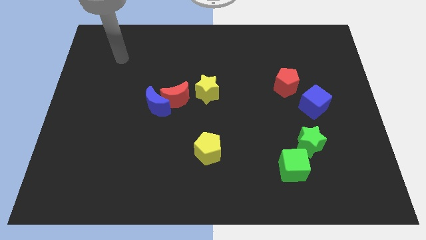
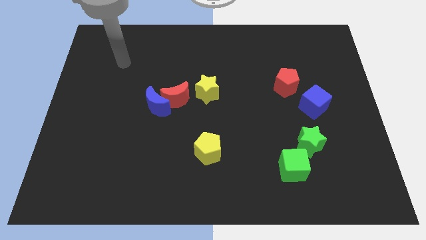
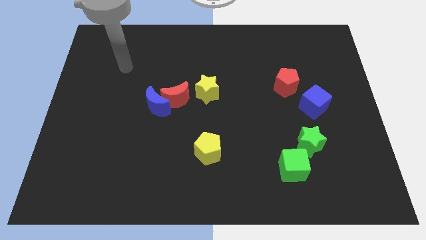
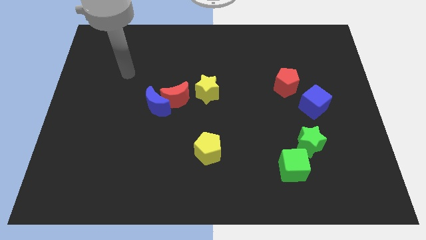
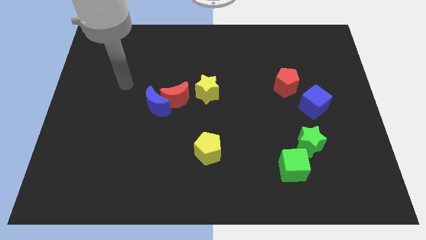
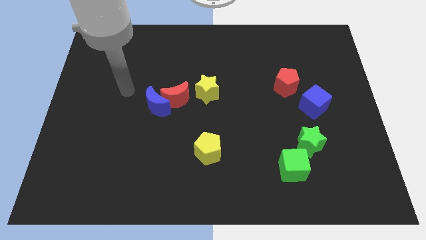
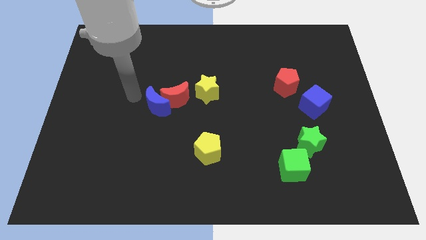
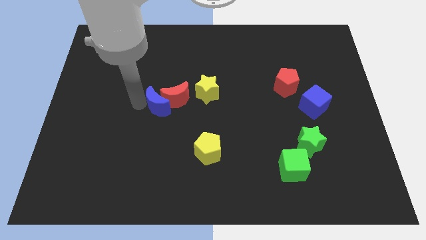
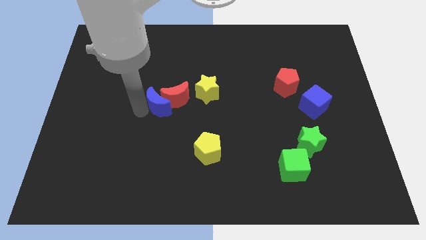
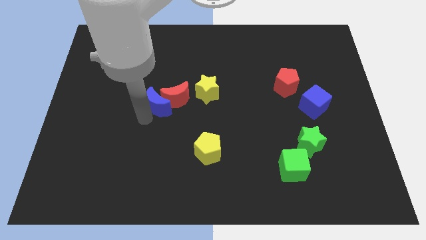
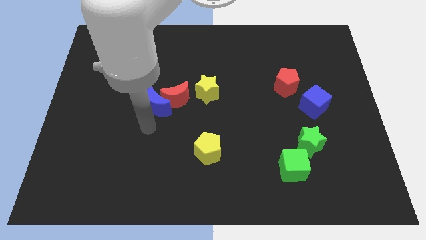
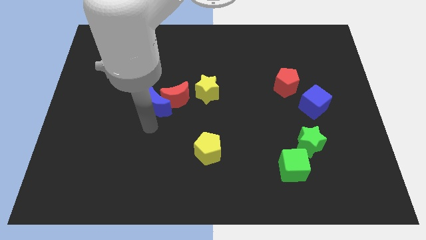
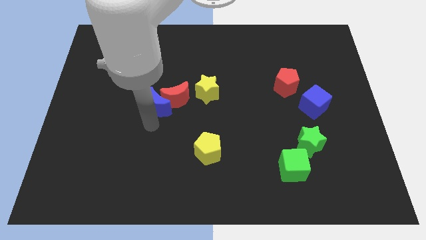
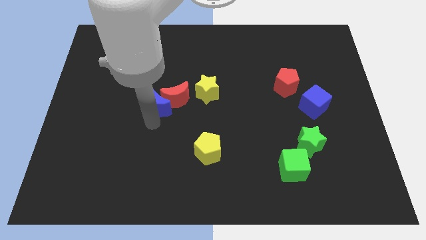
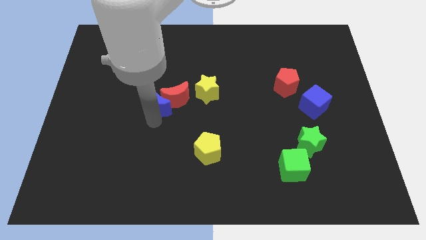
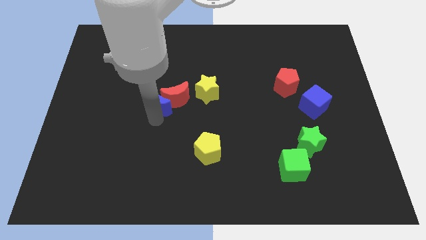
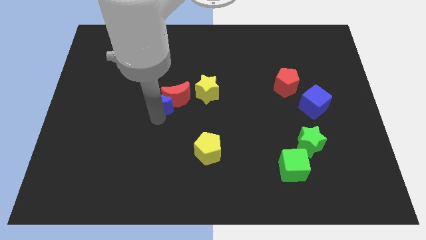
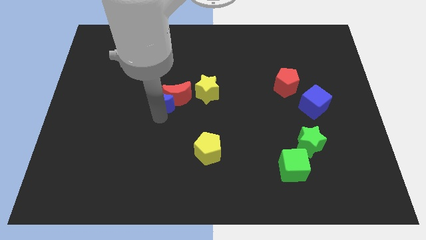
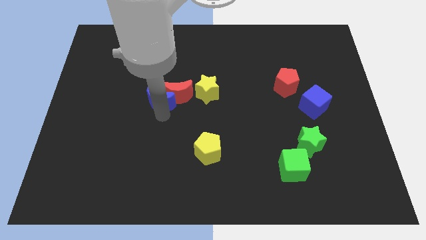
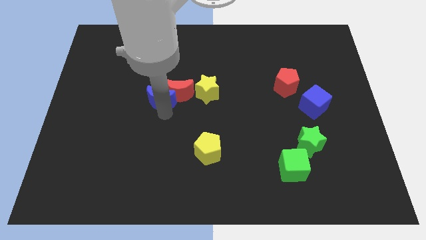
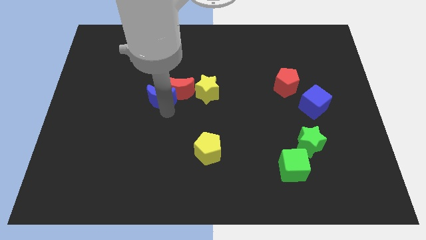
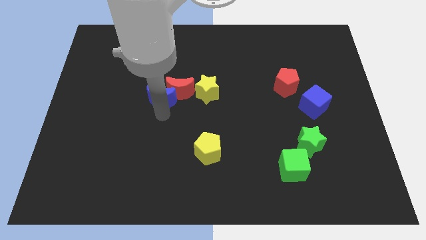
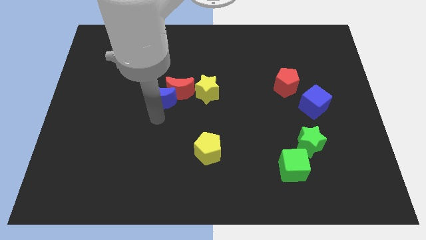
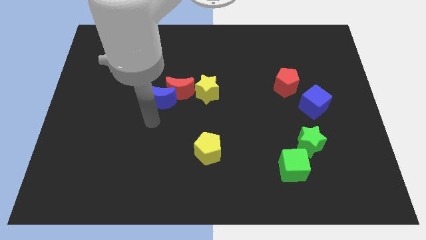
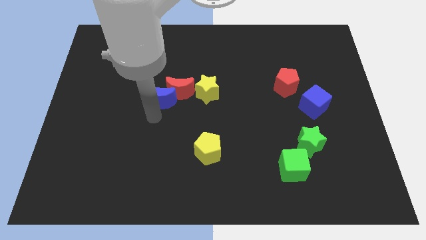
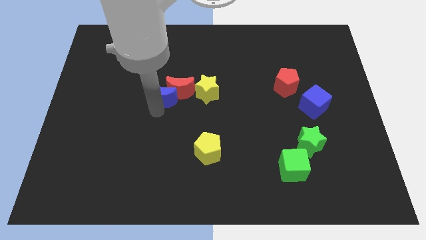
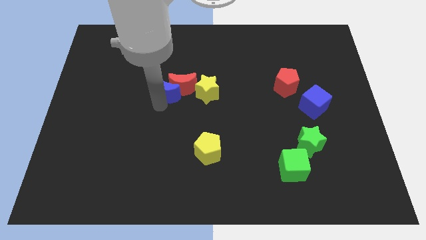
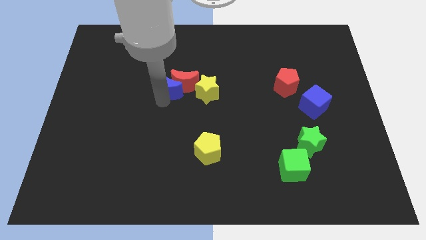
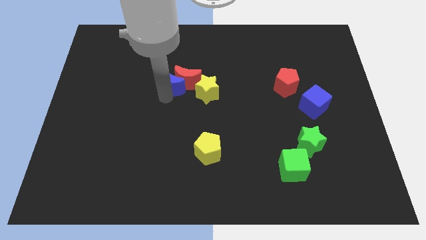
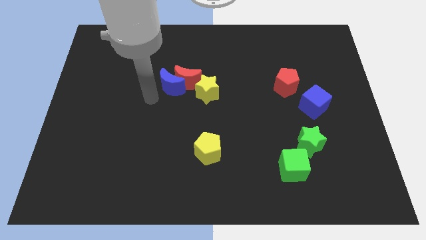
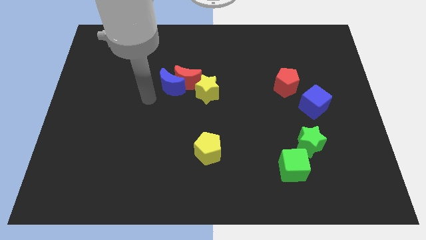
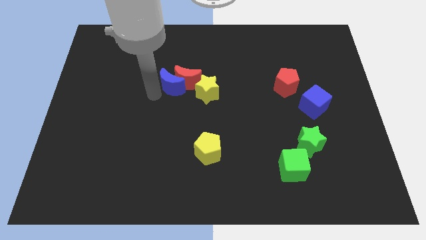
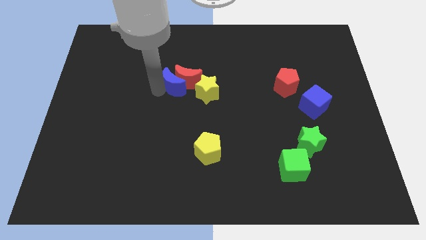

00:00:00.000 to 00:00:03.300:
push the blue moon a little up and right diagonally

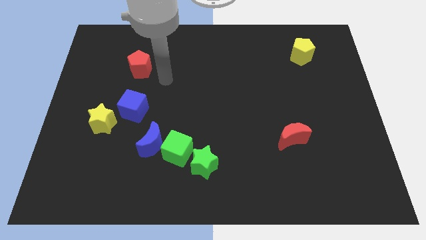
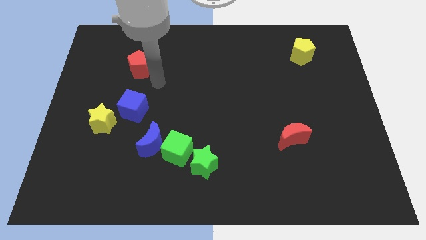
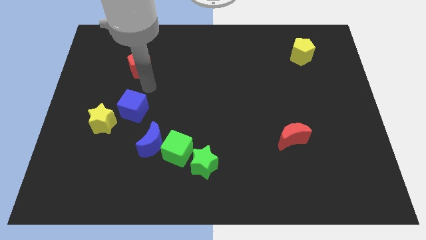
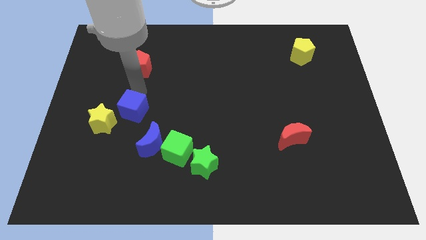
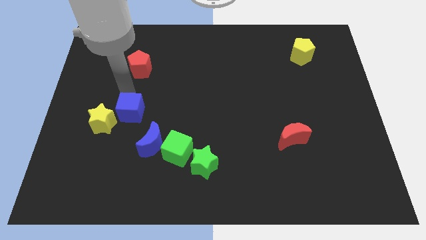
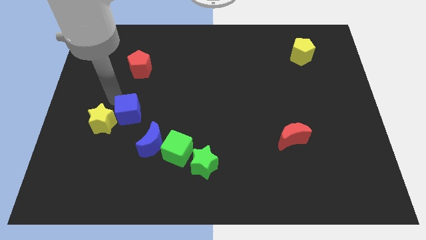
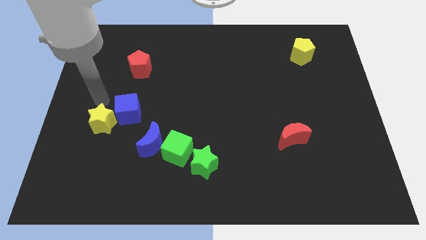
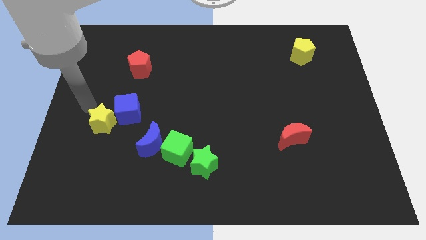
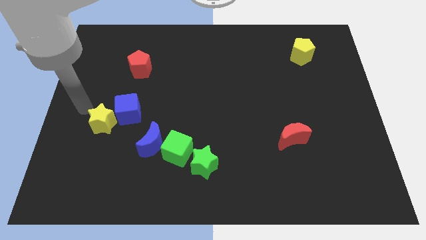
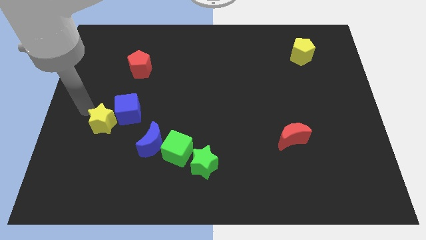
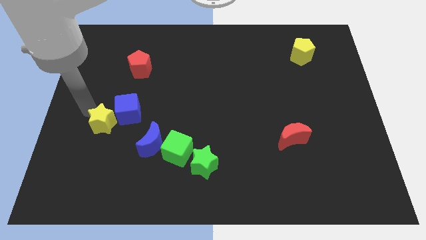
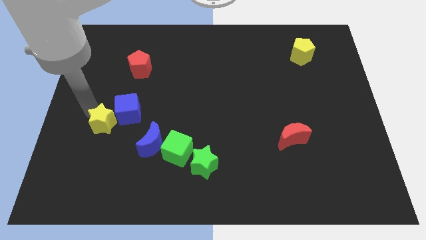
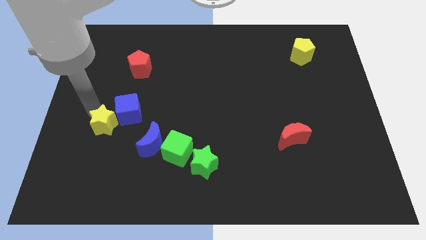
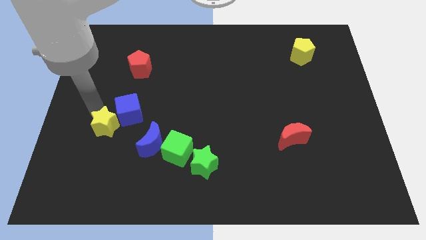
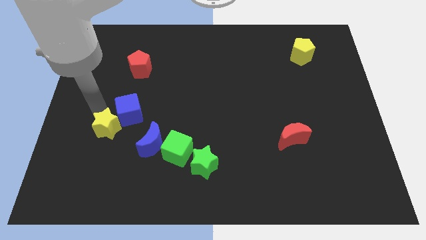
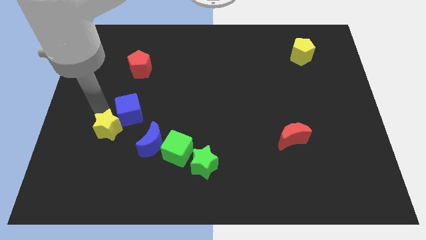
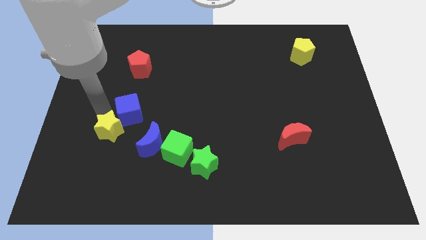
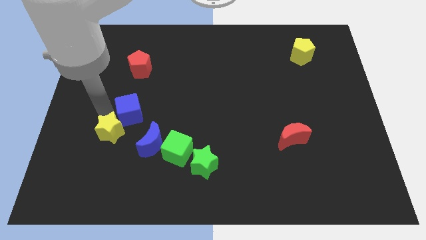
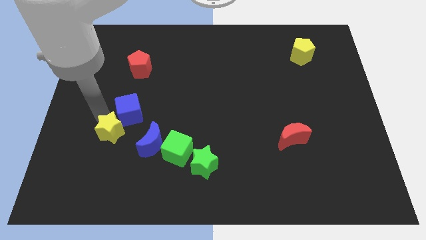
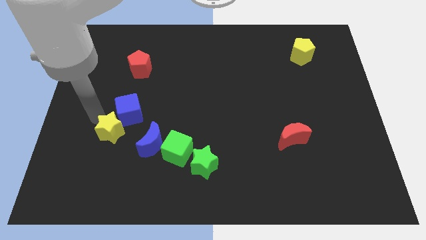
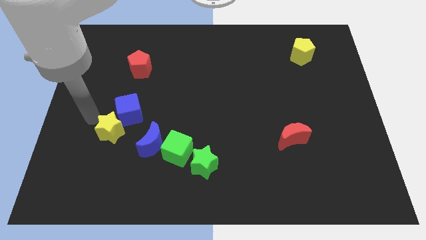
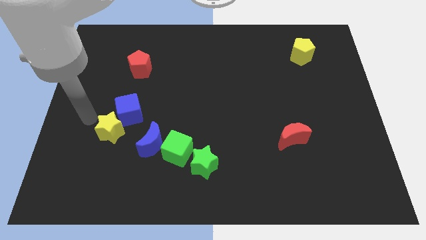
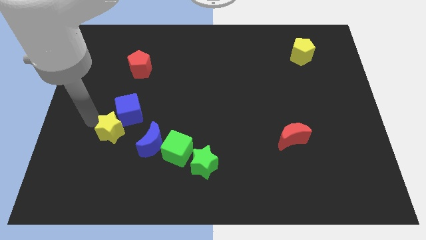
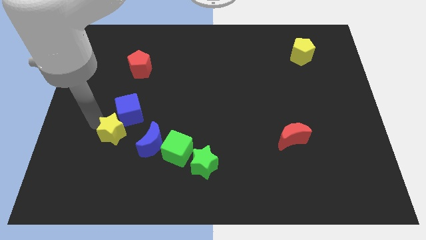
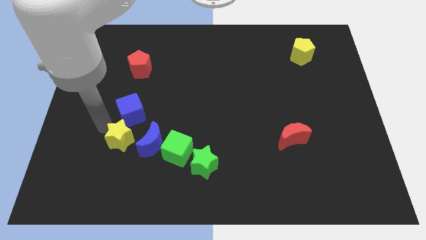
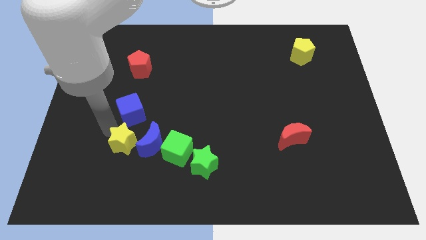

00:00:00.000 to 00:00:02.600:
slightly move the yellow star downwards and to the right

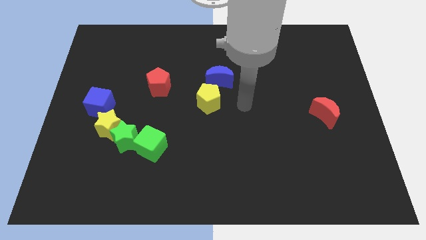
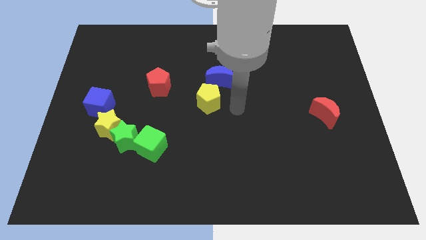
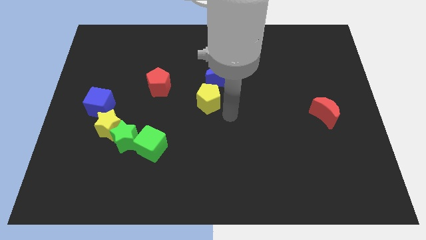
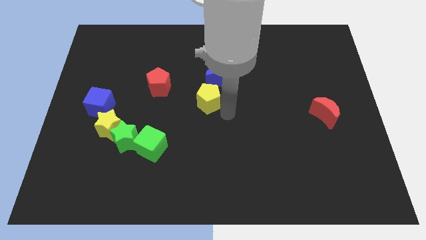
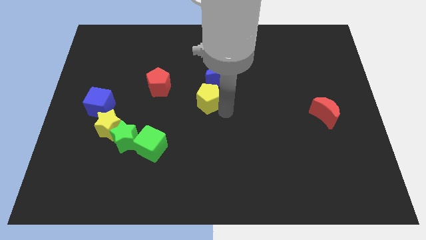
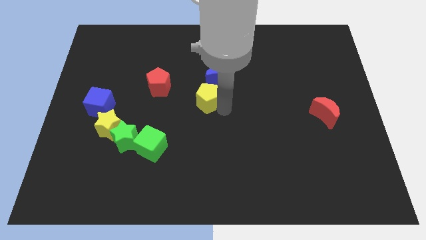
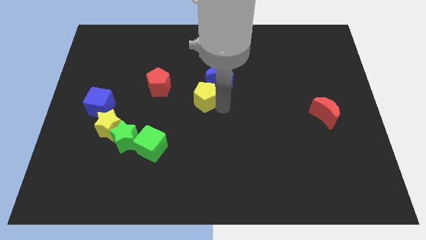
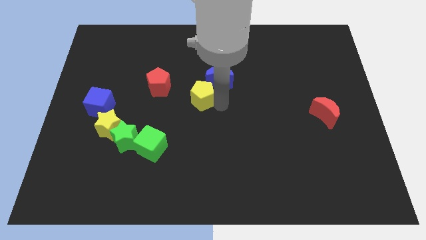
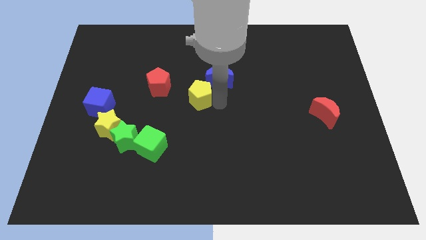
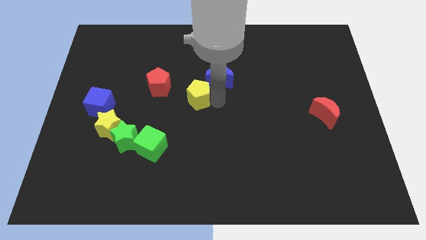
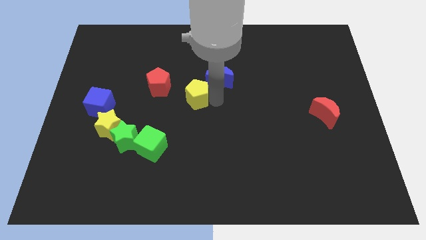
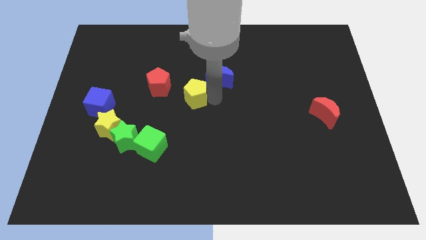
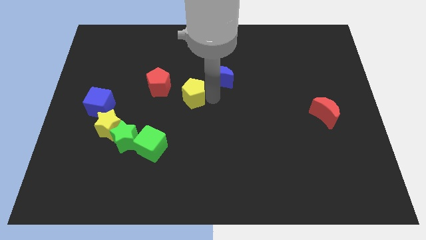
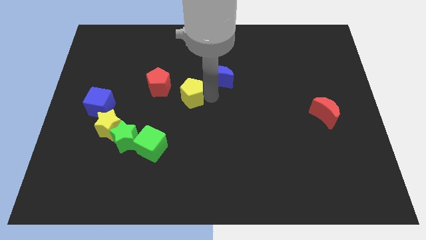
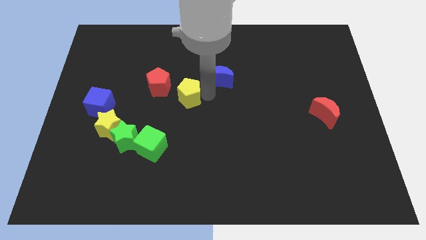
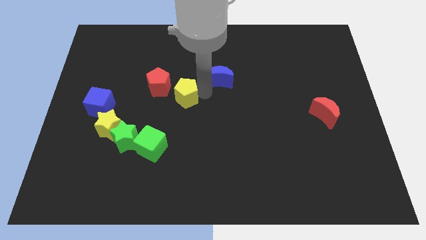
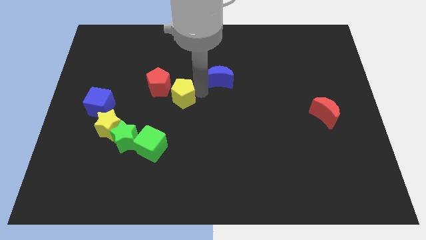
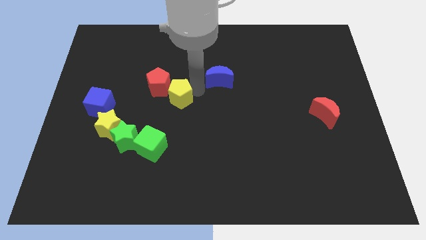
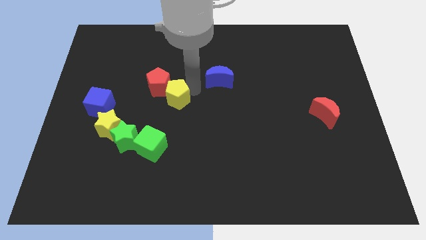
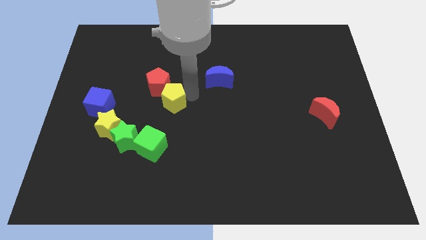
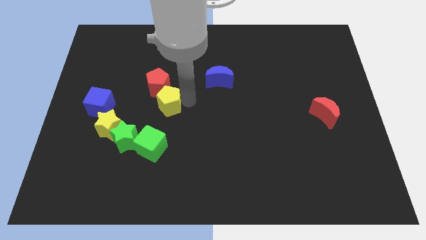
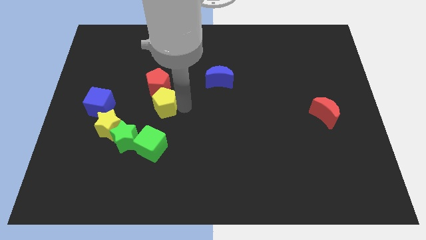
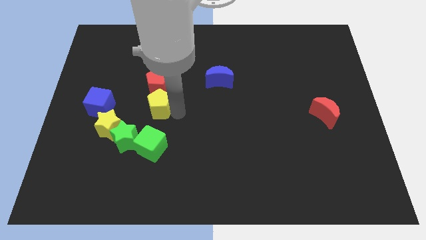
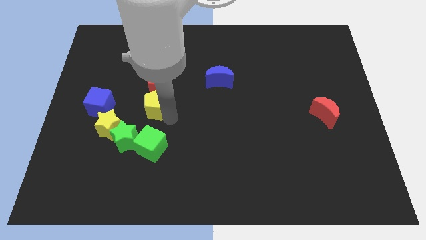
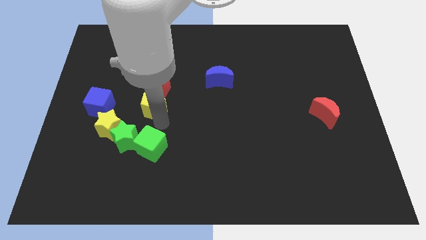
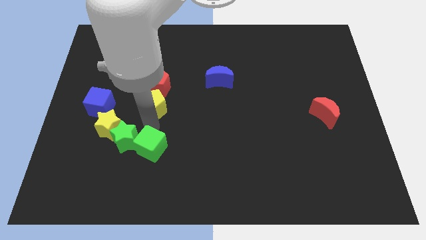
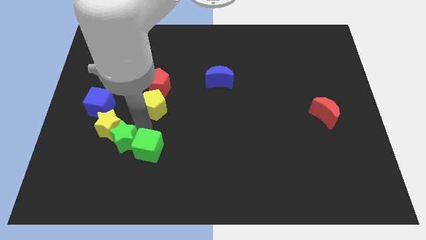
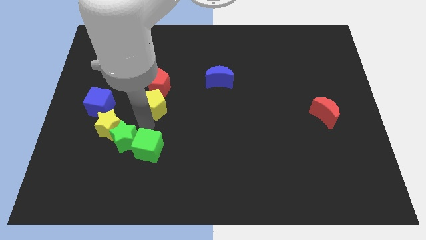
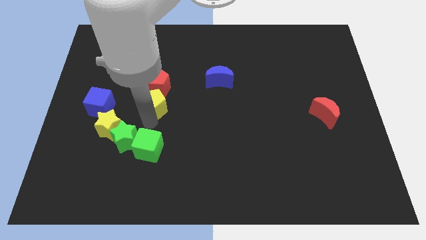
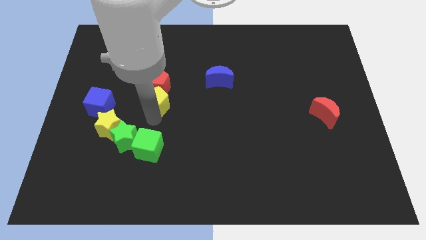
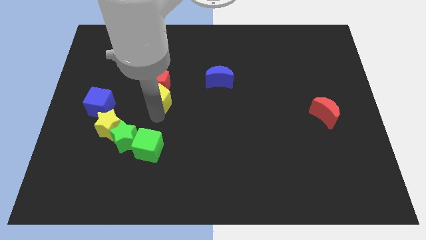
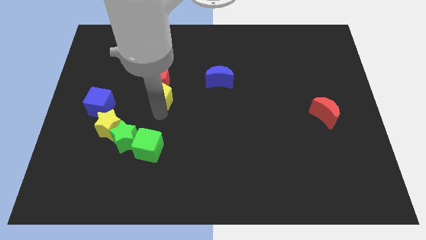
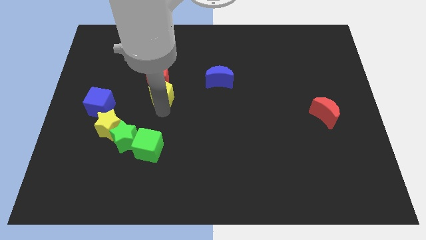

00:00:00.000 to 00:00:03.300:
slightly push the yellow pentagon upwards and to the left
